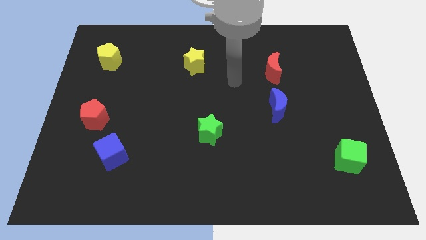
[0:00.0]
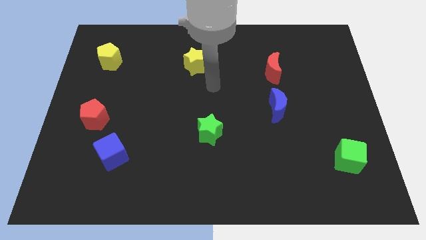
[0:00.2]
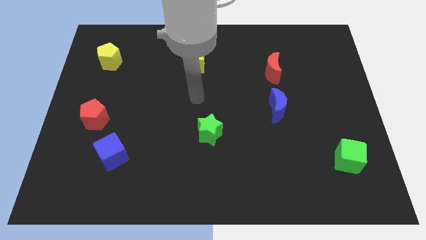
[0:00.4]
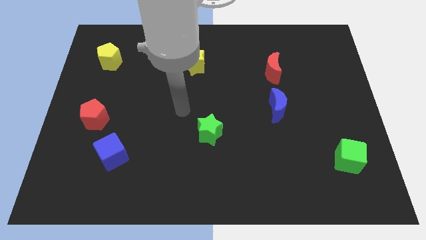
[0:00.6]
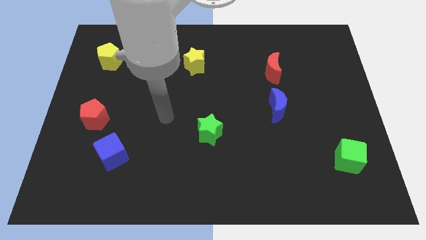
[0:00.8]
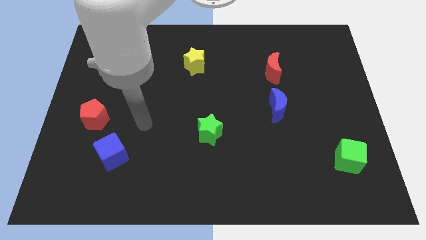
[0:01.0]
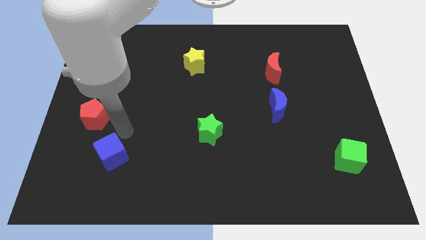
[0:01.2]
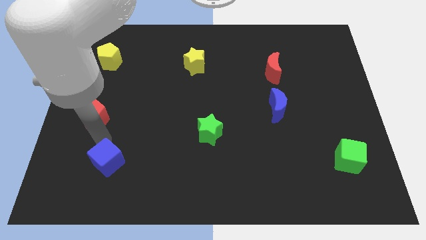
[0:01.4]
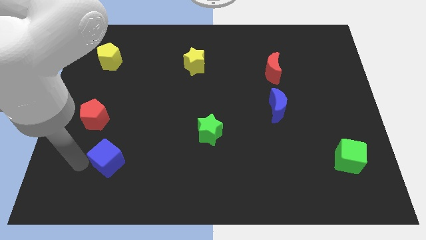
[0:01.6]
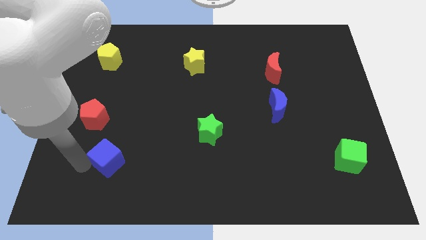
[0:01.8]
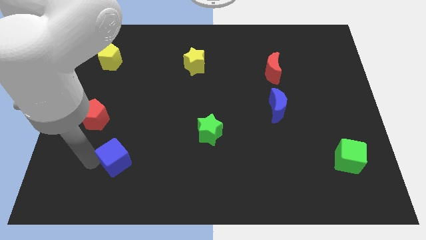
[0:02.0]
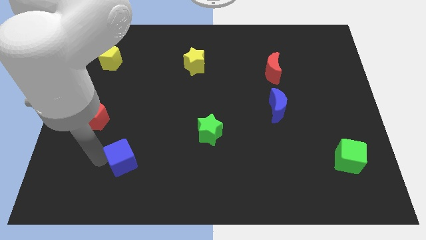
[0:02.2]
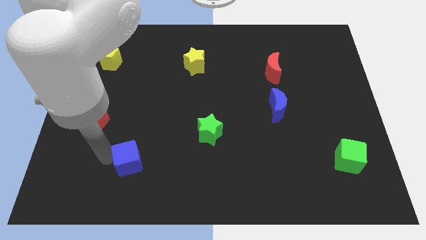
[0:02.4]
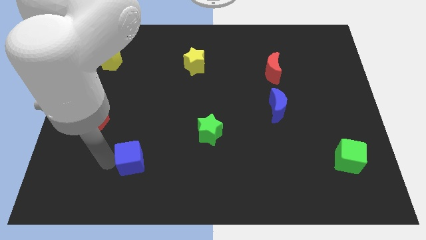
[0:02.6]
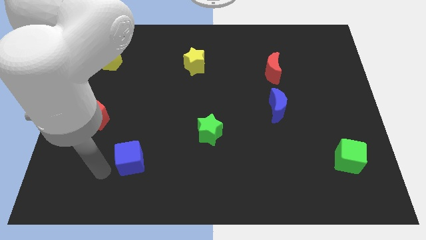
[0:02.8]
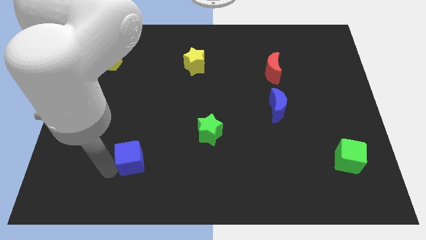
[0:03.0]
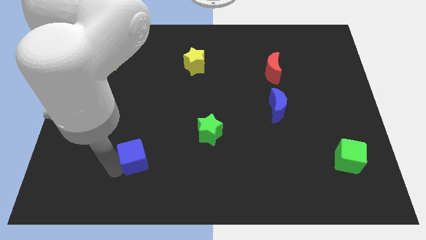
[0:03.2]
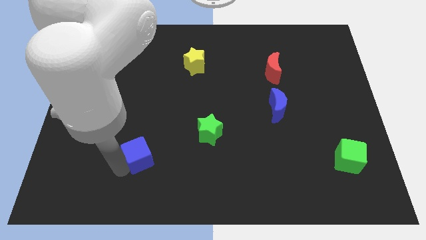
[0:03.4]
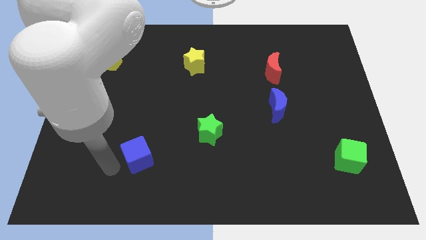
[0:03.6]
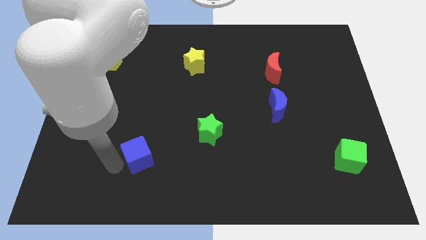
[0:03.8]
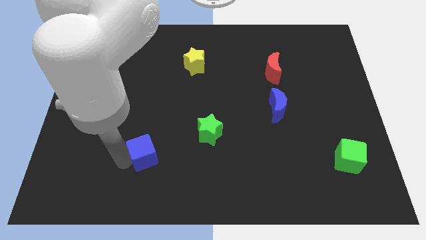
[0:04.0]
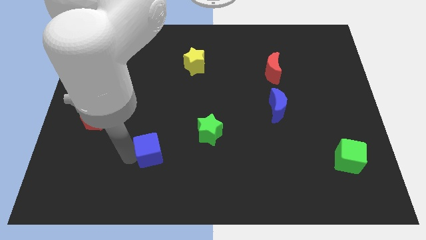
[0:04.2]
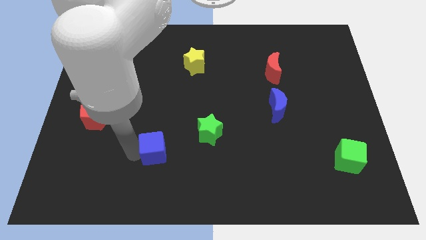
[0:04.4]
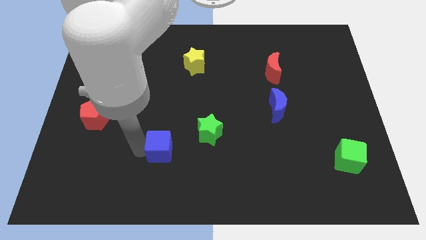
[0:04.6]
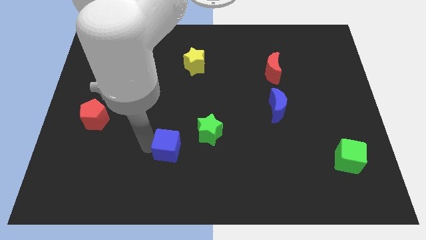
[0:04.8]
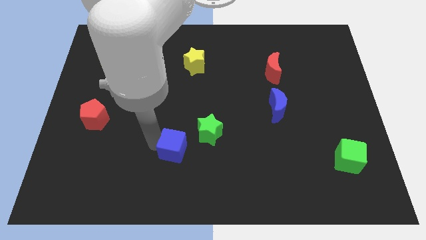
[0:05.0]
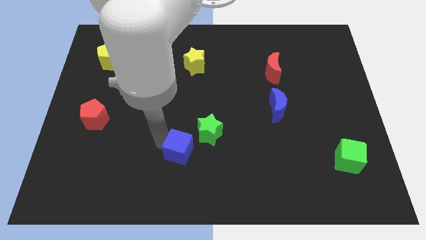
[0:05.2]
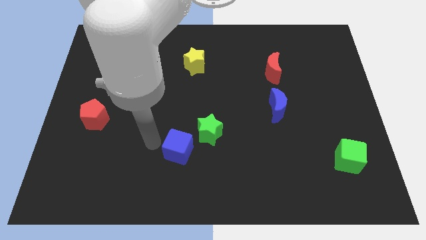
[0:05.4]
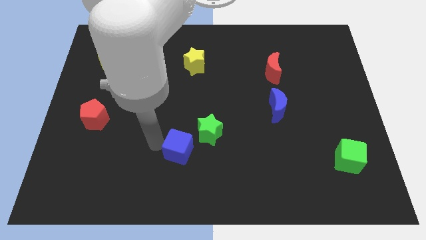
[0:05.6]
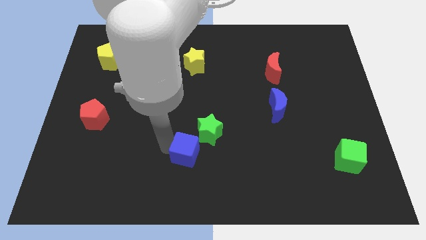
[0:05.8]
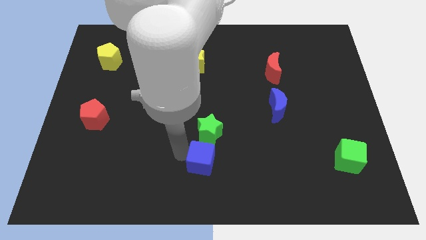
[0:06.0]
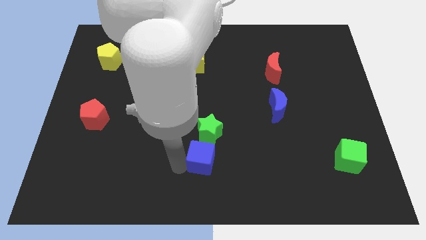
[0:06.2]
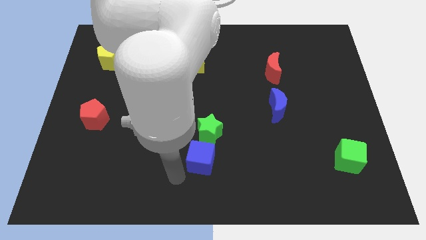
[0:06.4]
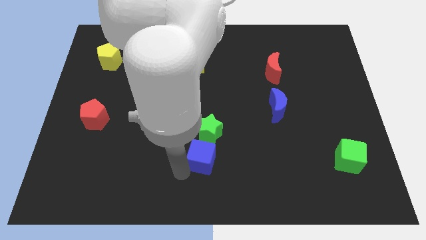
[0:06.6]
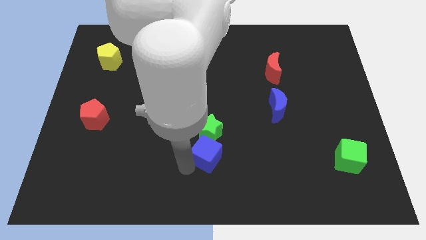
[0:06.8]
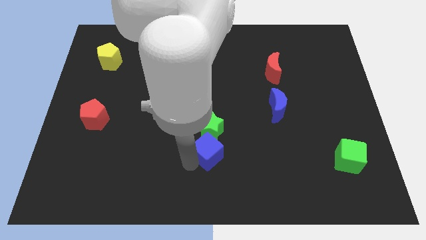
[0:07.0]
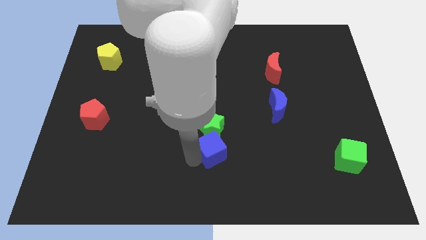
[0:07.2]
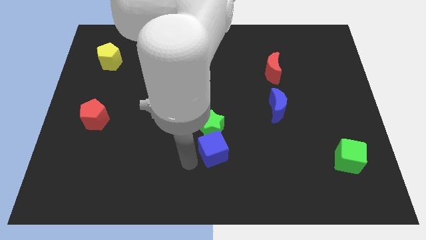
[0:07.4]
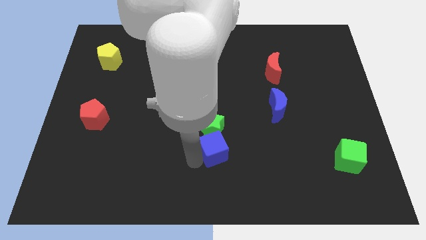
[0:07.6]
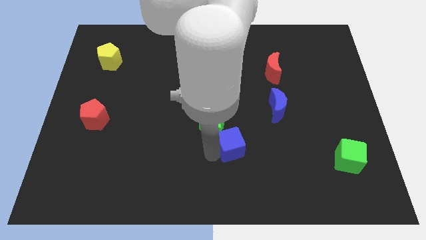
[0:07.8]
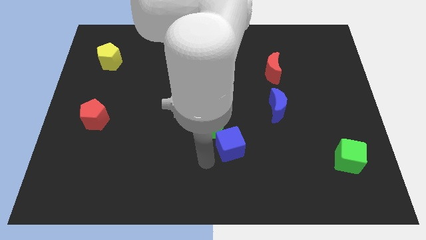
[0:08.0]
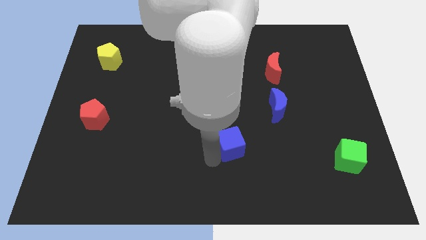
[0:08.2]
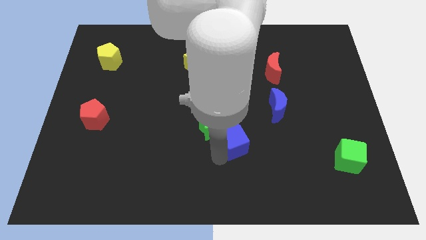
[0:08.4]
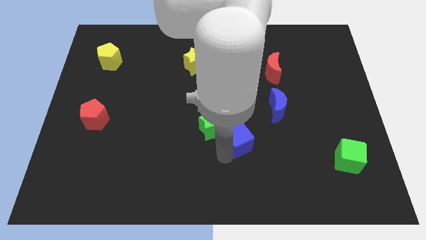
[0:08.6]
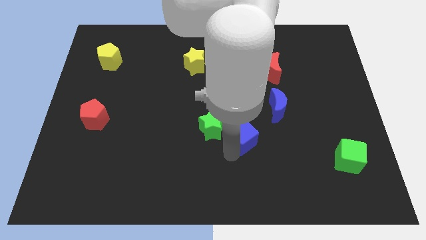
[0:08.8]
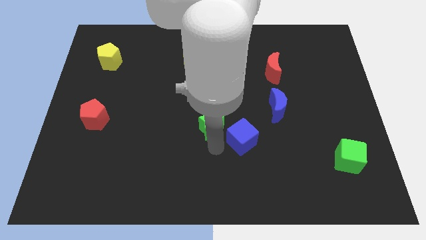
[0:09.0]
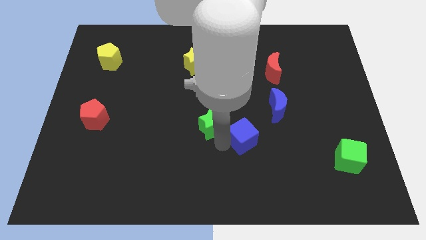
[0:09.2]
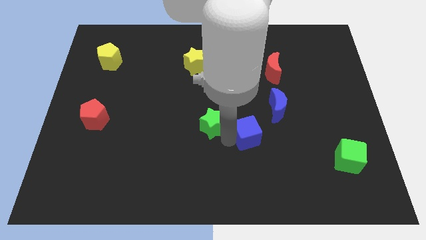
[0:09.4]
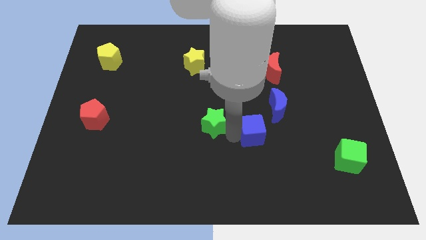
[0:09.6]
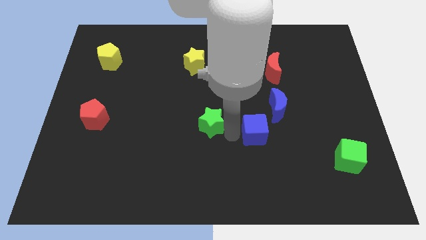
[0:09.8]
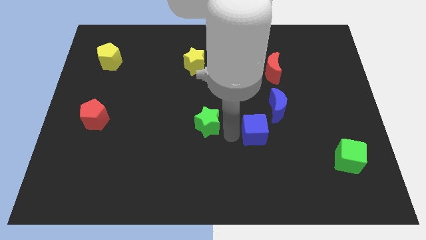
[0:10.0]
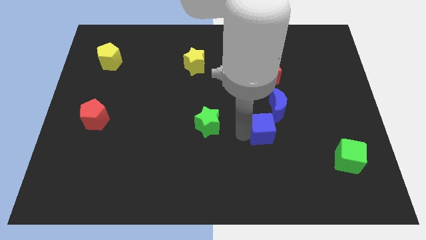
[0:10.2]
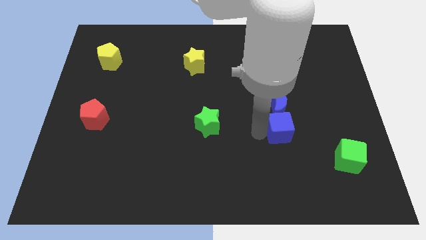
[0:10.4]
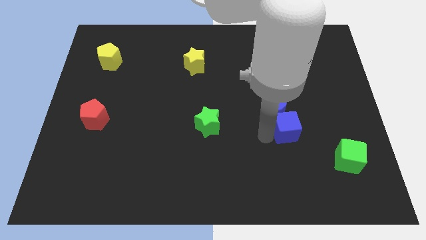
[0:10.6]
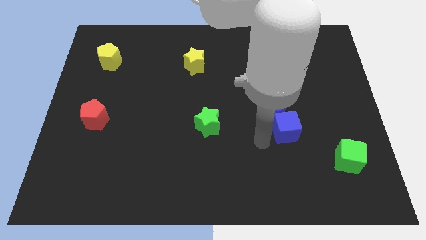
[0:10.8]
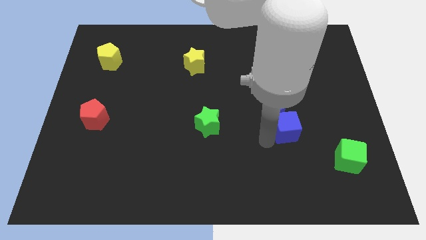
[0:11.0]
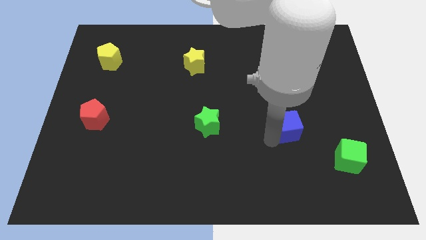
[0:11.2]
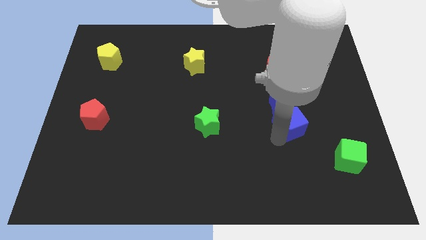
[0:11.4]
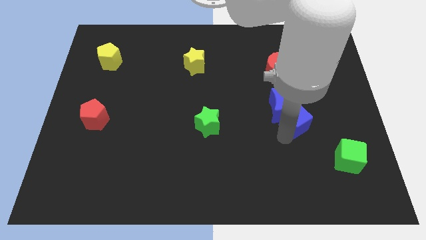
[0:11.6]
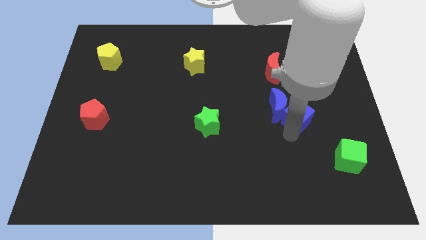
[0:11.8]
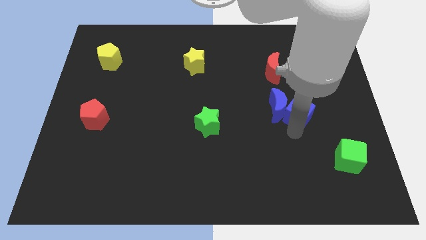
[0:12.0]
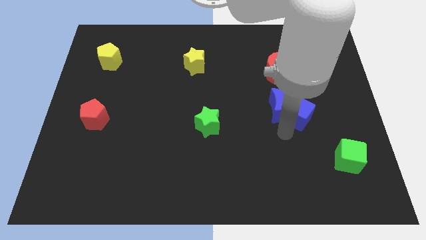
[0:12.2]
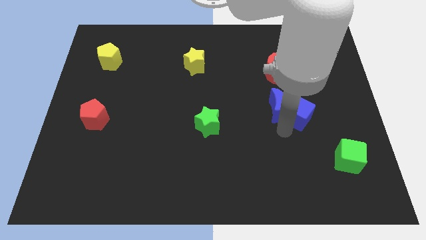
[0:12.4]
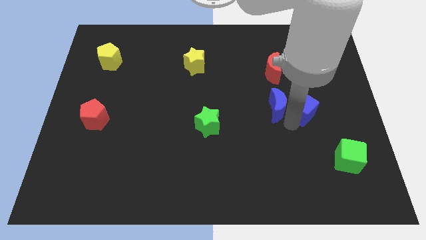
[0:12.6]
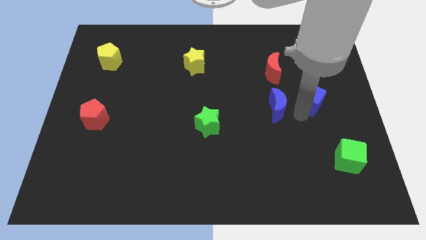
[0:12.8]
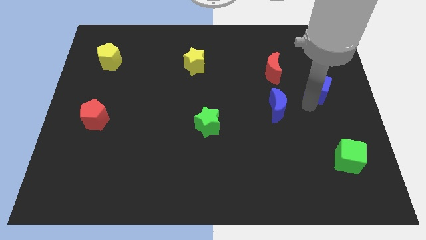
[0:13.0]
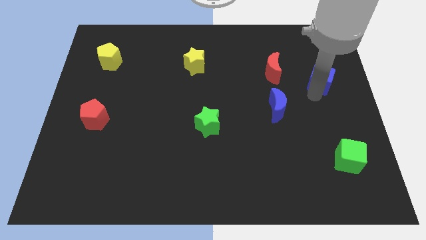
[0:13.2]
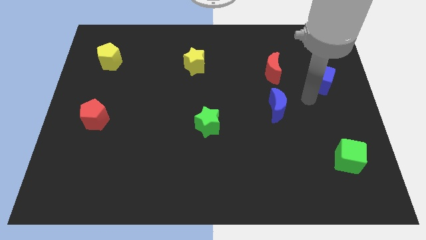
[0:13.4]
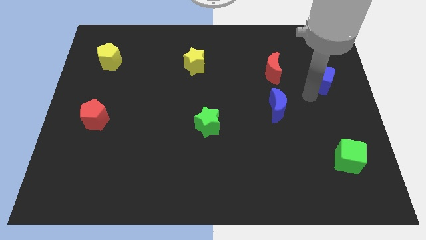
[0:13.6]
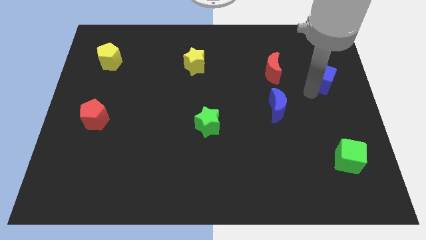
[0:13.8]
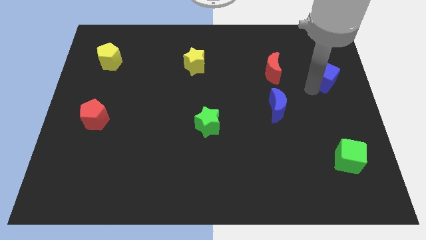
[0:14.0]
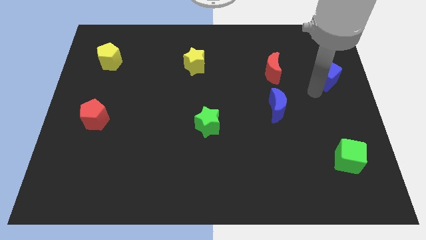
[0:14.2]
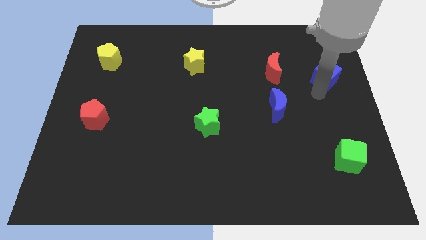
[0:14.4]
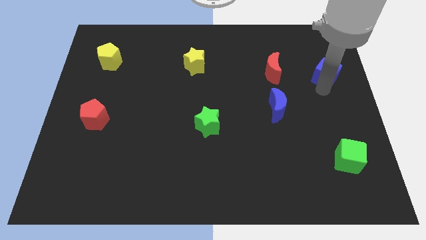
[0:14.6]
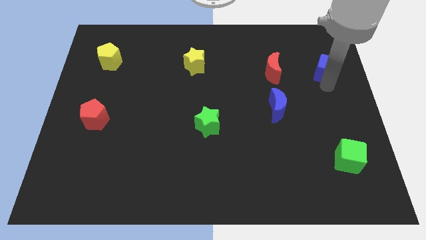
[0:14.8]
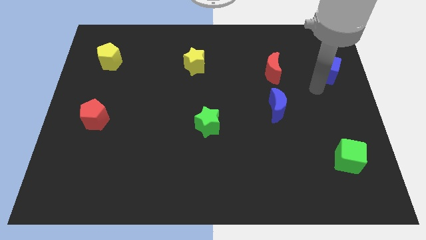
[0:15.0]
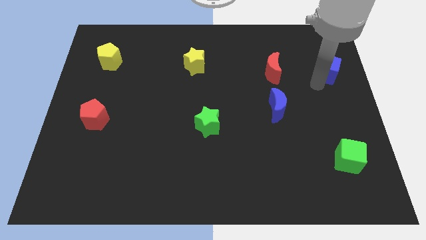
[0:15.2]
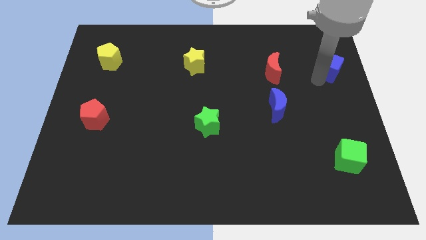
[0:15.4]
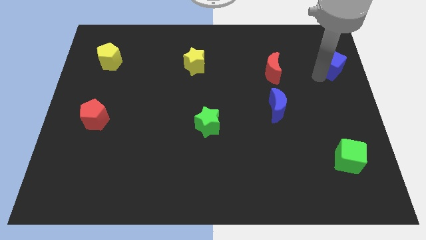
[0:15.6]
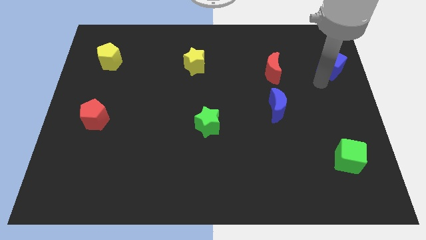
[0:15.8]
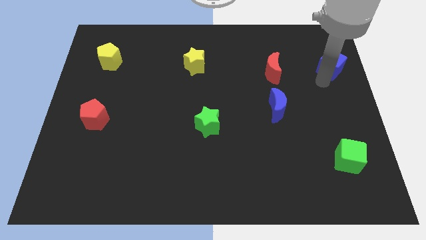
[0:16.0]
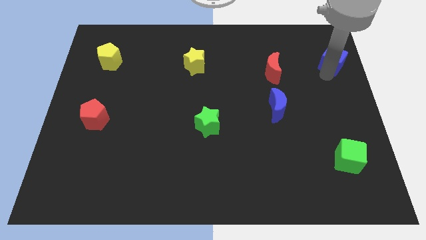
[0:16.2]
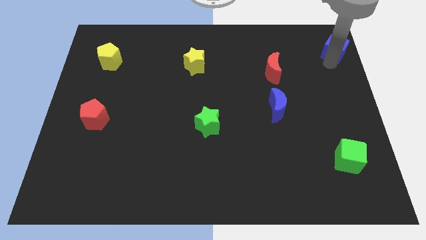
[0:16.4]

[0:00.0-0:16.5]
put the blue cube to the top right corner
